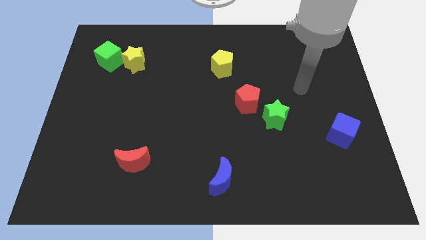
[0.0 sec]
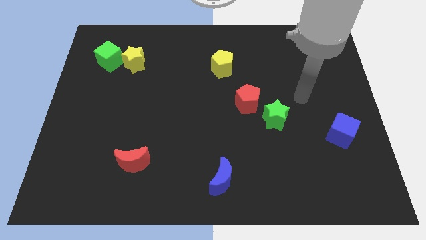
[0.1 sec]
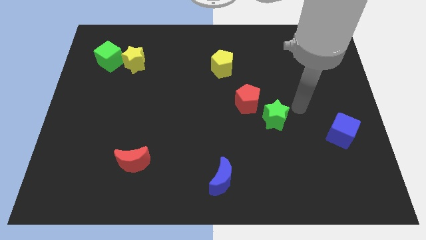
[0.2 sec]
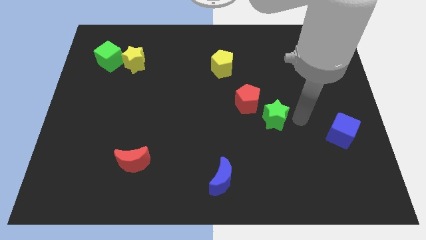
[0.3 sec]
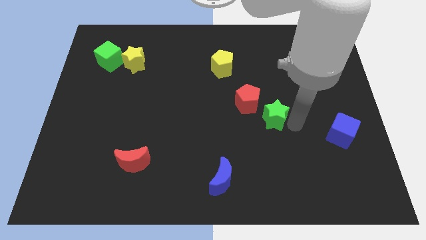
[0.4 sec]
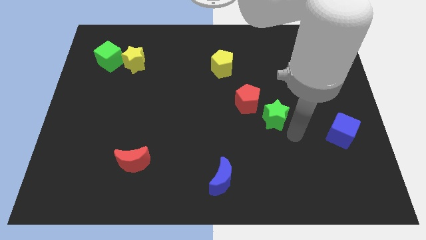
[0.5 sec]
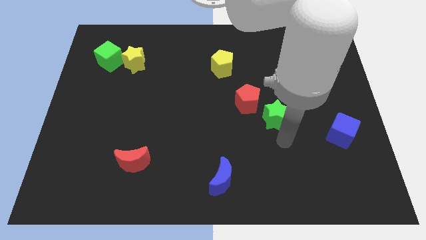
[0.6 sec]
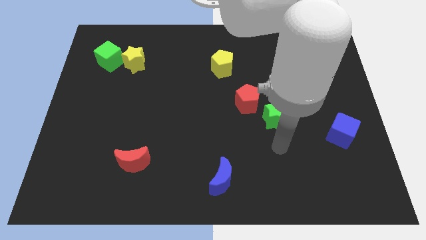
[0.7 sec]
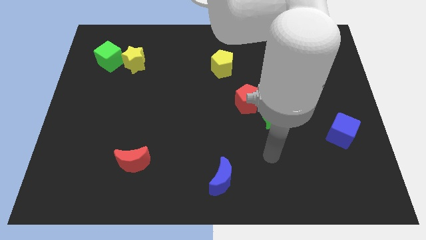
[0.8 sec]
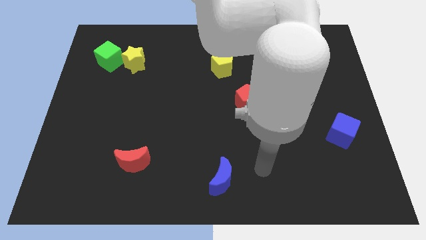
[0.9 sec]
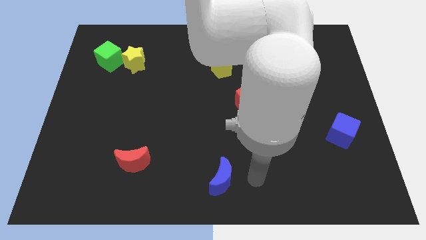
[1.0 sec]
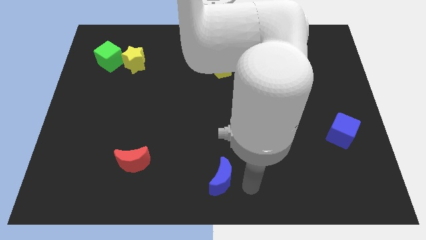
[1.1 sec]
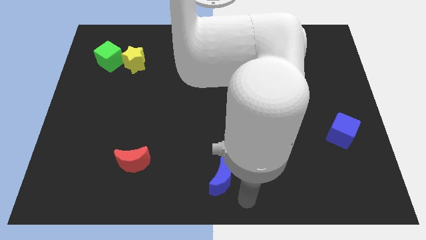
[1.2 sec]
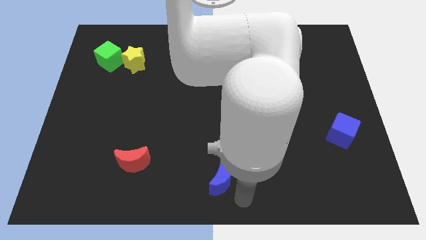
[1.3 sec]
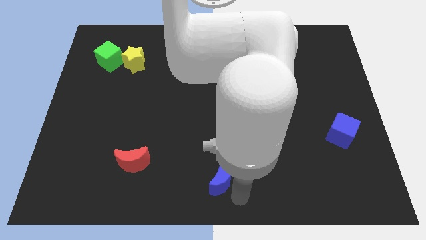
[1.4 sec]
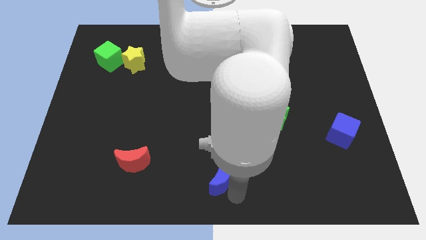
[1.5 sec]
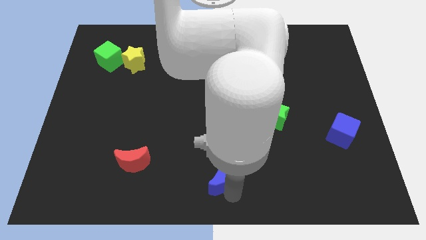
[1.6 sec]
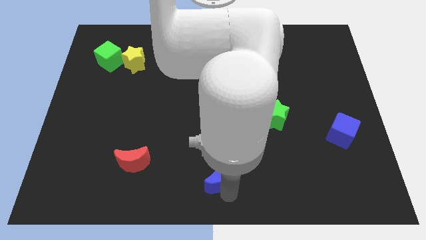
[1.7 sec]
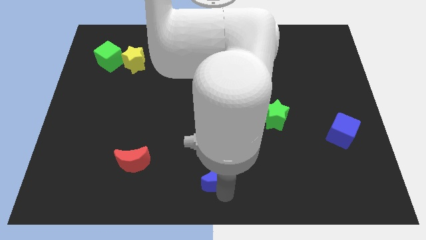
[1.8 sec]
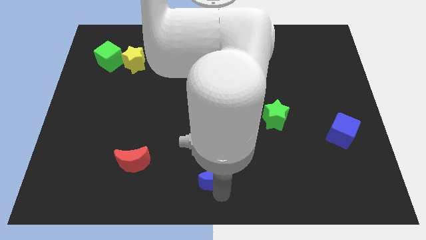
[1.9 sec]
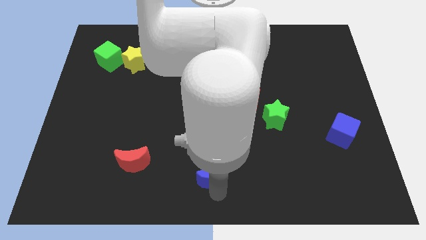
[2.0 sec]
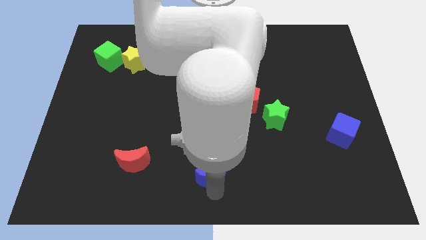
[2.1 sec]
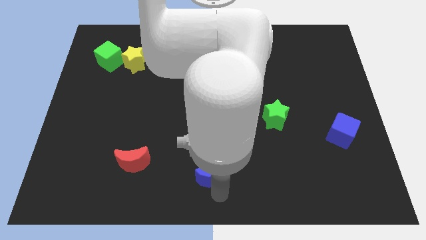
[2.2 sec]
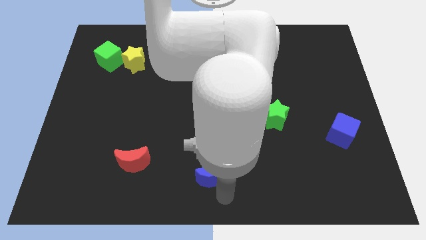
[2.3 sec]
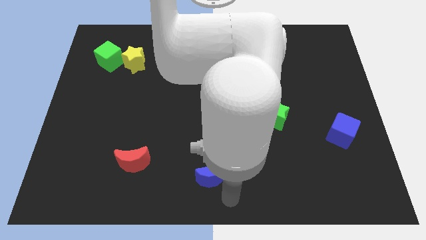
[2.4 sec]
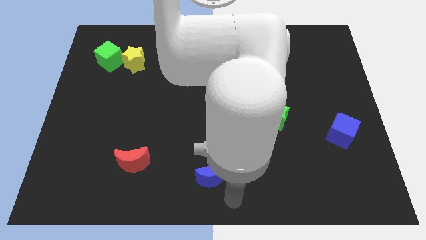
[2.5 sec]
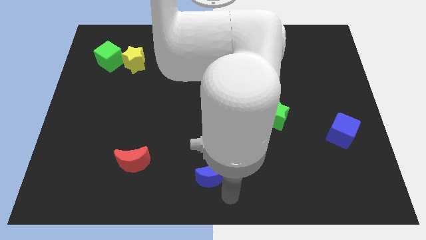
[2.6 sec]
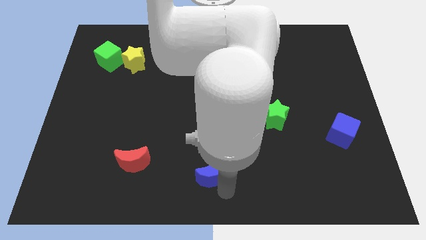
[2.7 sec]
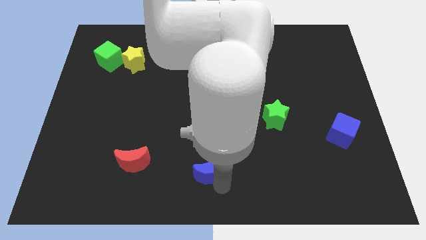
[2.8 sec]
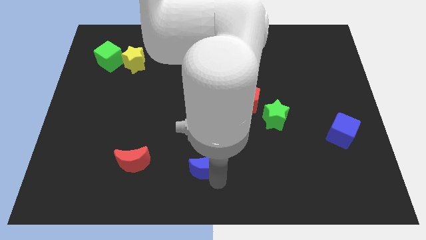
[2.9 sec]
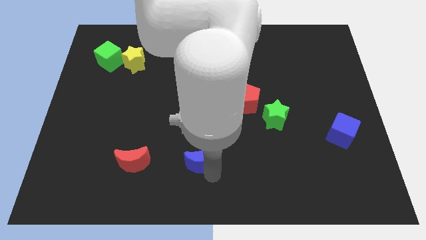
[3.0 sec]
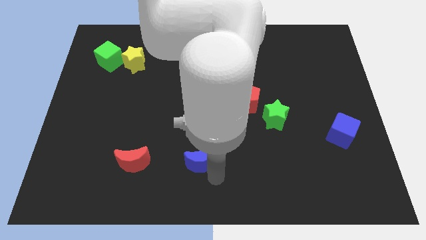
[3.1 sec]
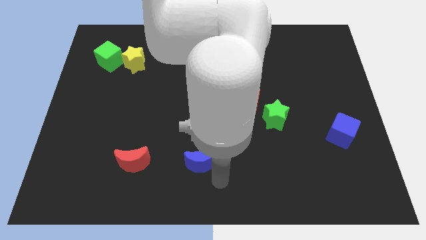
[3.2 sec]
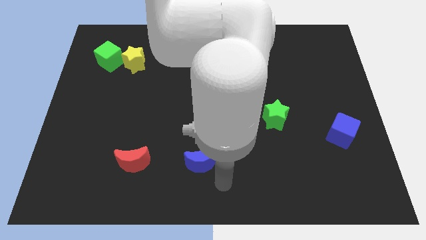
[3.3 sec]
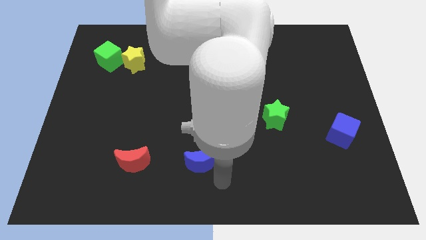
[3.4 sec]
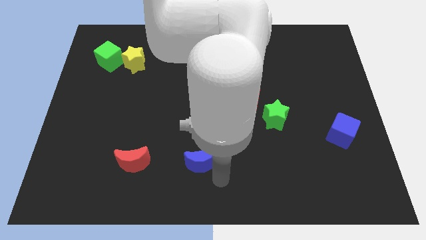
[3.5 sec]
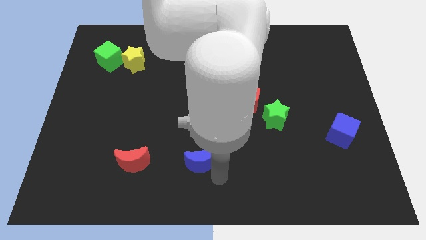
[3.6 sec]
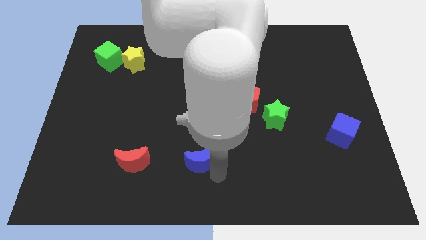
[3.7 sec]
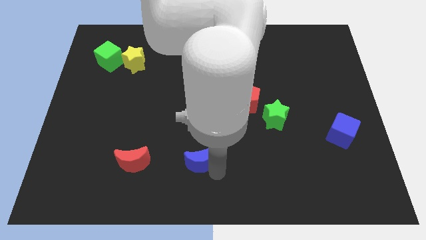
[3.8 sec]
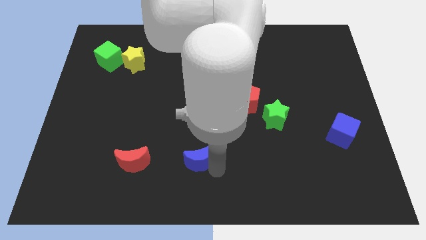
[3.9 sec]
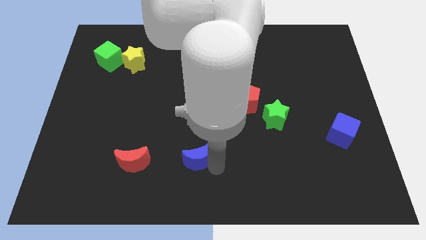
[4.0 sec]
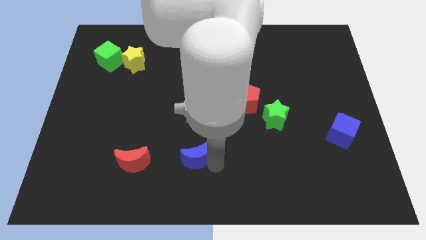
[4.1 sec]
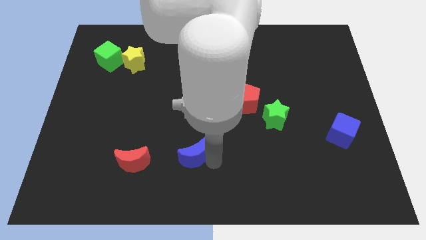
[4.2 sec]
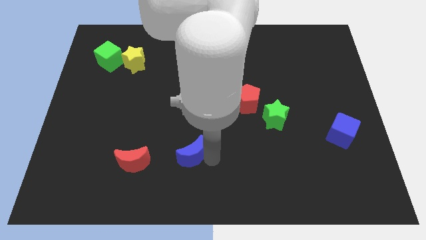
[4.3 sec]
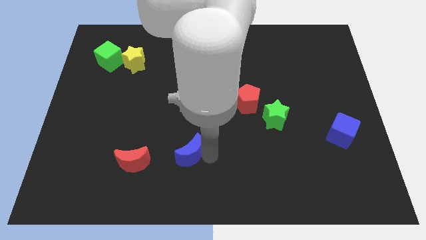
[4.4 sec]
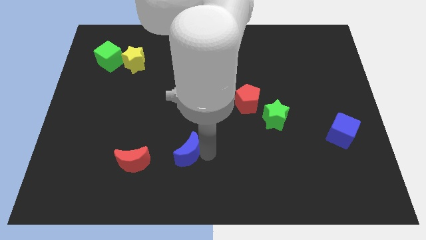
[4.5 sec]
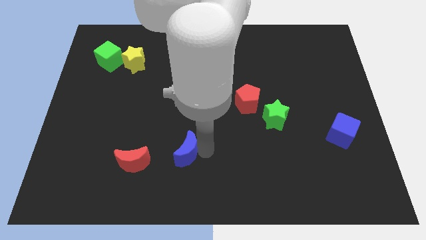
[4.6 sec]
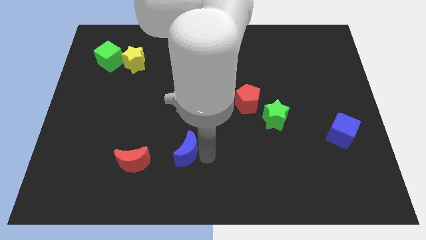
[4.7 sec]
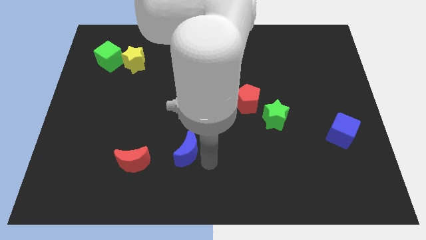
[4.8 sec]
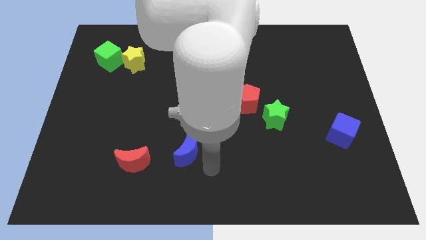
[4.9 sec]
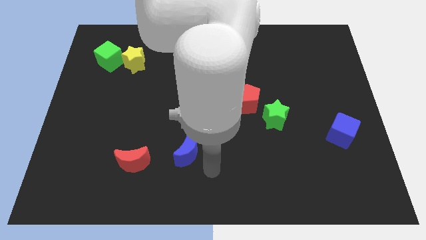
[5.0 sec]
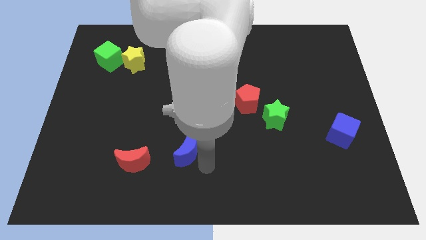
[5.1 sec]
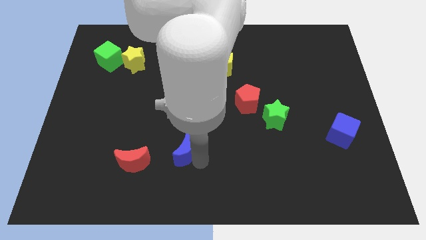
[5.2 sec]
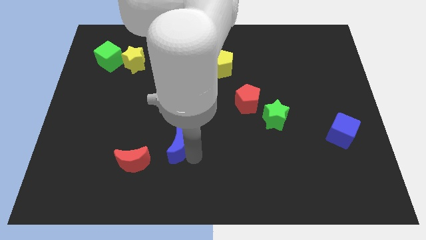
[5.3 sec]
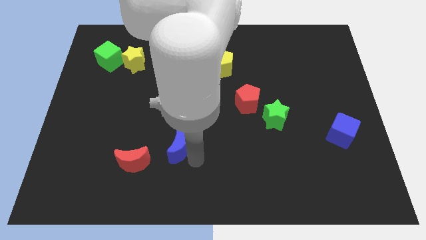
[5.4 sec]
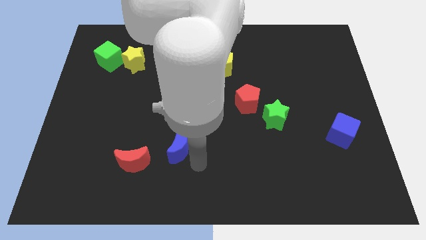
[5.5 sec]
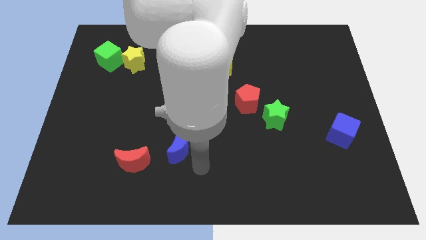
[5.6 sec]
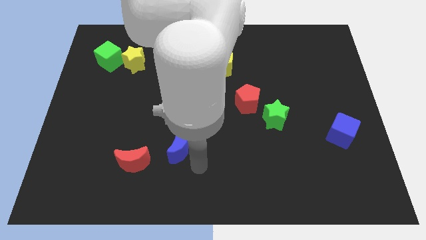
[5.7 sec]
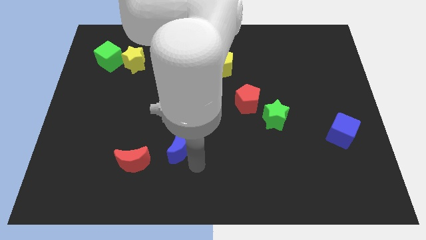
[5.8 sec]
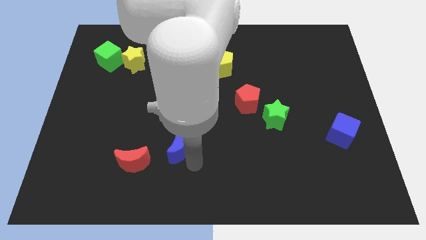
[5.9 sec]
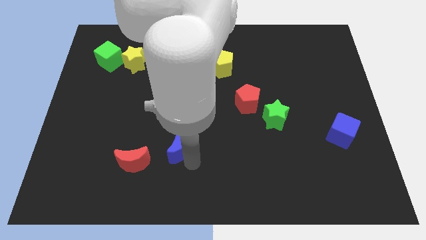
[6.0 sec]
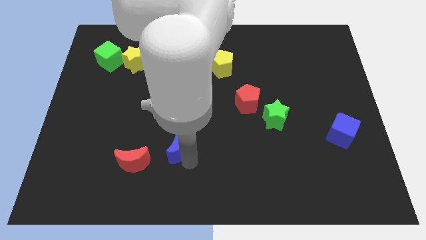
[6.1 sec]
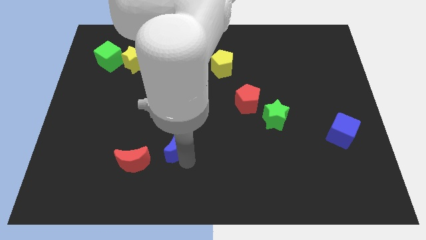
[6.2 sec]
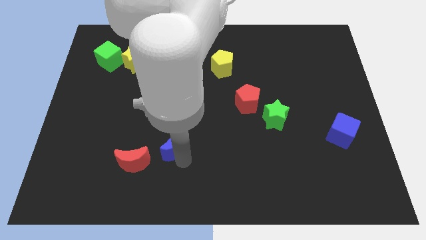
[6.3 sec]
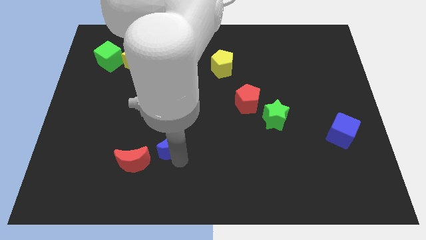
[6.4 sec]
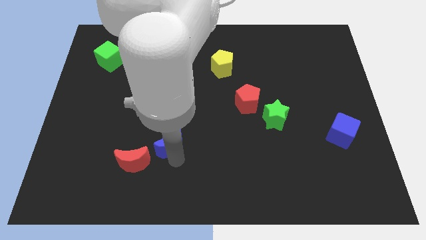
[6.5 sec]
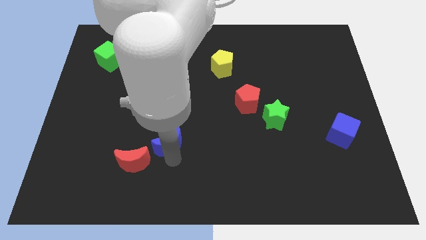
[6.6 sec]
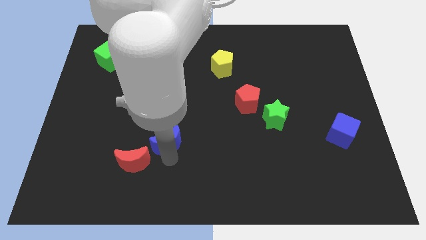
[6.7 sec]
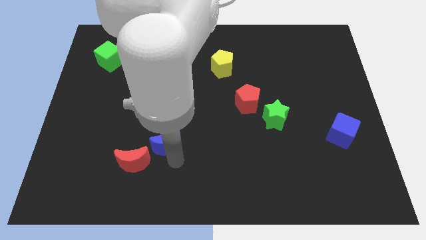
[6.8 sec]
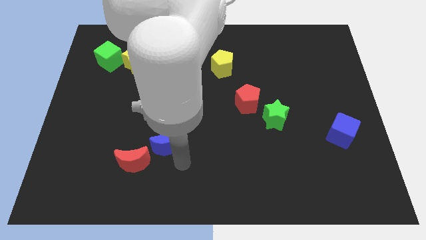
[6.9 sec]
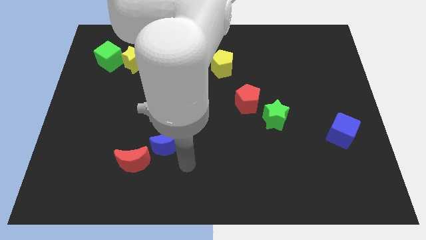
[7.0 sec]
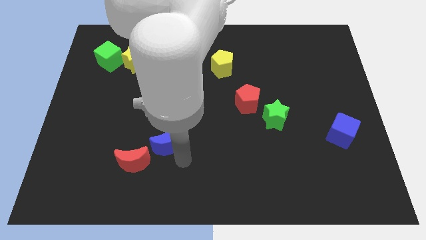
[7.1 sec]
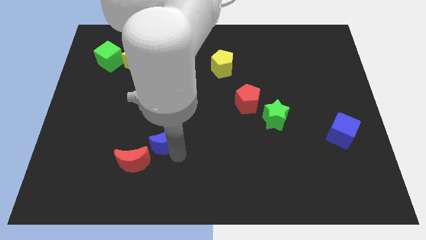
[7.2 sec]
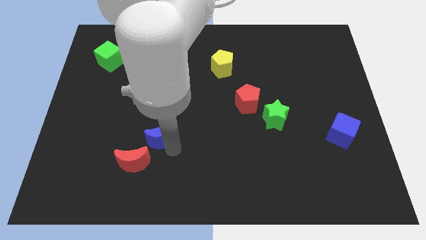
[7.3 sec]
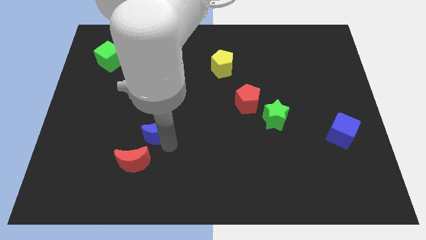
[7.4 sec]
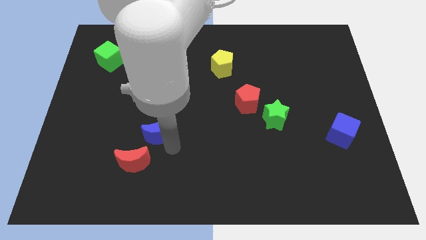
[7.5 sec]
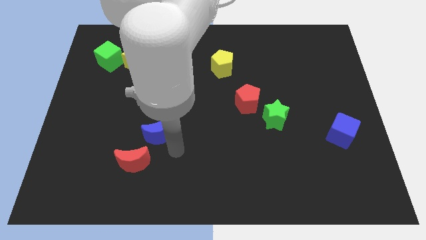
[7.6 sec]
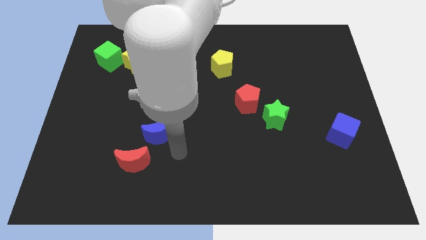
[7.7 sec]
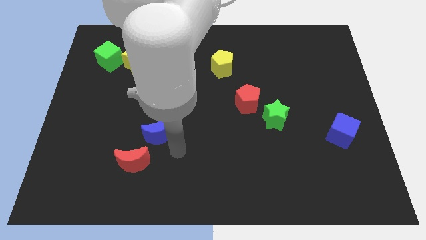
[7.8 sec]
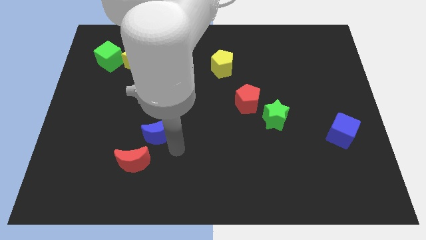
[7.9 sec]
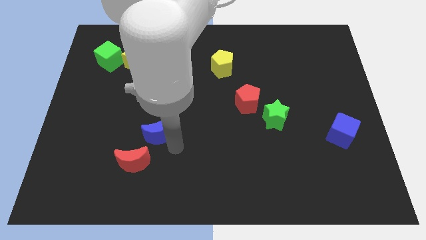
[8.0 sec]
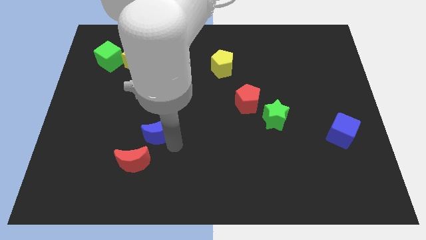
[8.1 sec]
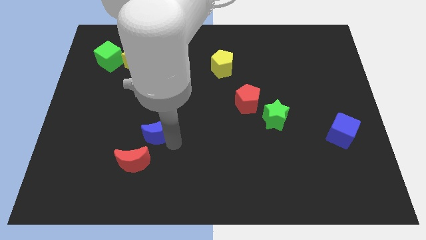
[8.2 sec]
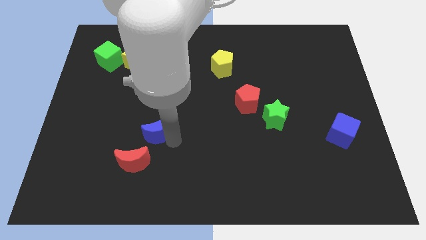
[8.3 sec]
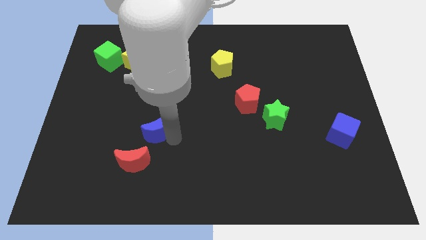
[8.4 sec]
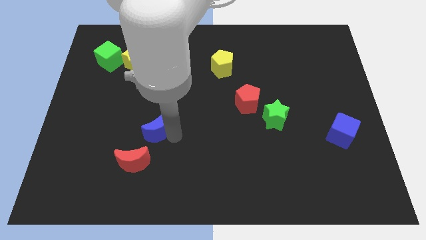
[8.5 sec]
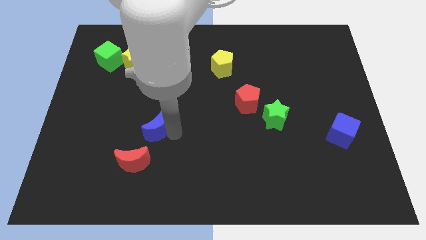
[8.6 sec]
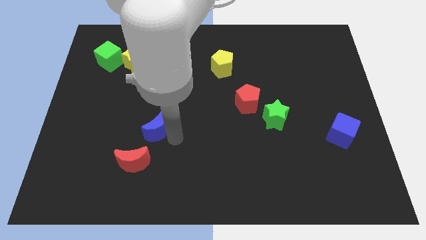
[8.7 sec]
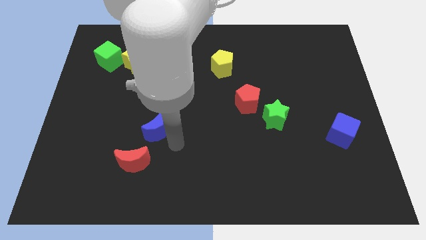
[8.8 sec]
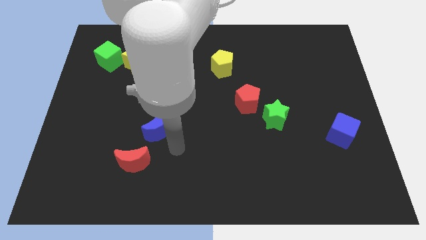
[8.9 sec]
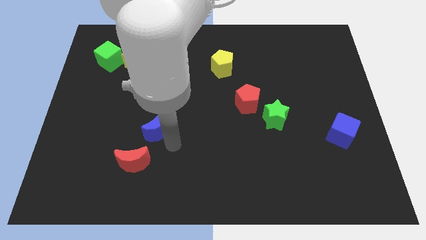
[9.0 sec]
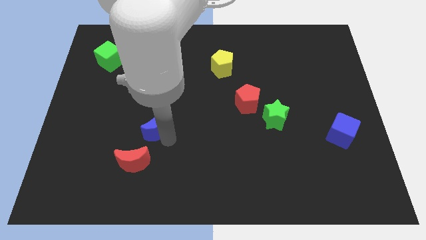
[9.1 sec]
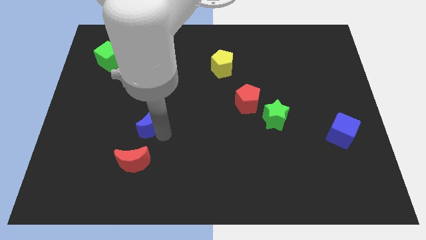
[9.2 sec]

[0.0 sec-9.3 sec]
slide the blue moon upwards and left
